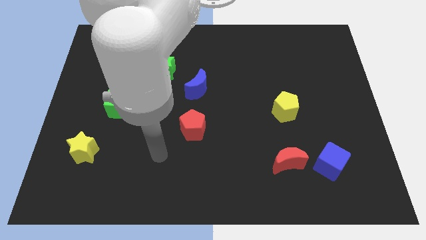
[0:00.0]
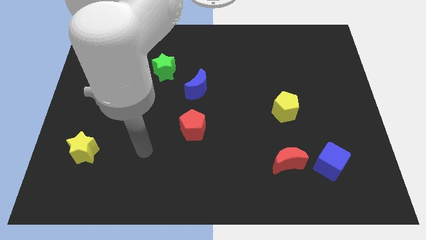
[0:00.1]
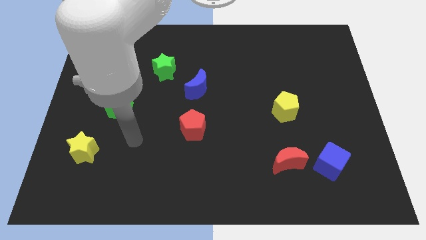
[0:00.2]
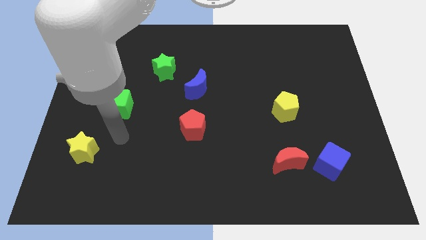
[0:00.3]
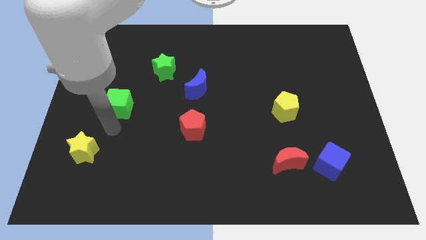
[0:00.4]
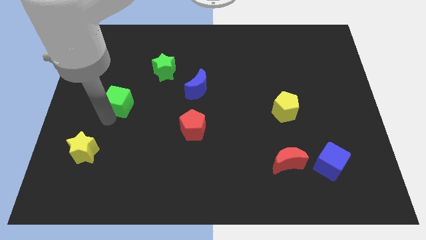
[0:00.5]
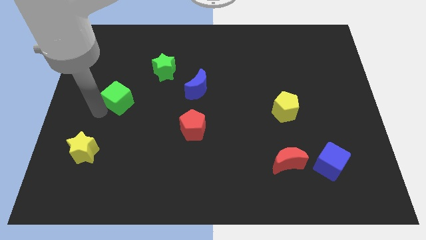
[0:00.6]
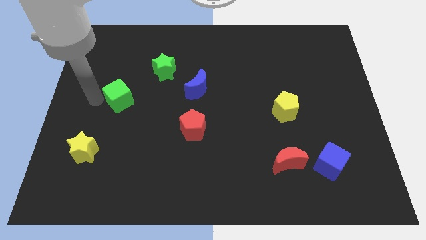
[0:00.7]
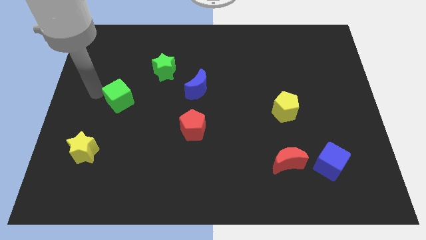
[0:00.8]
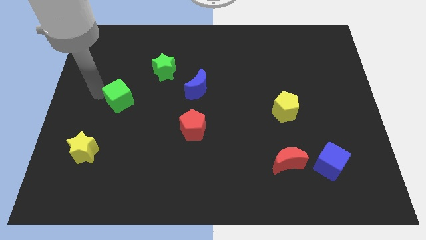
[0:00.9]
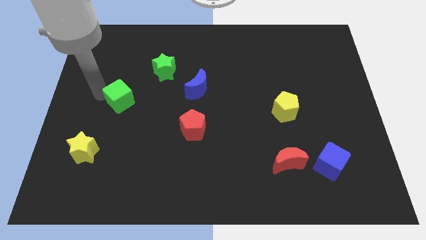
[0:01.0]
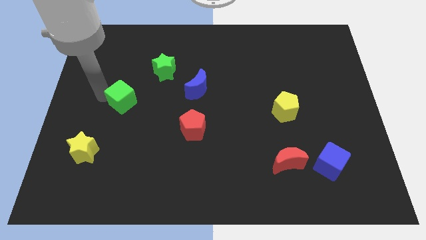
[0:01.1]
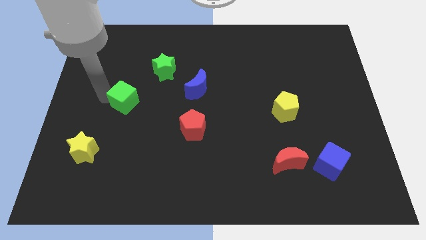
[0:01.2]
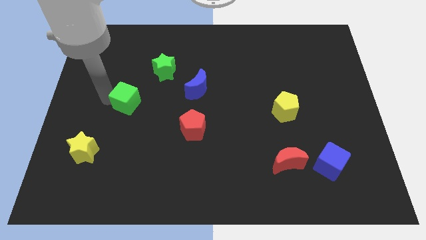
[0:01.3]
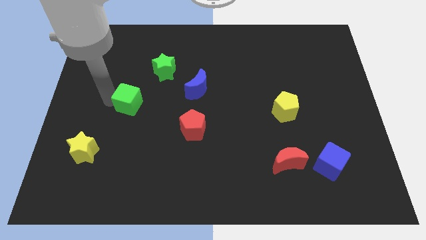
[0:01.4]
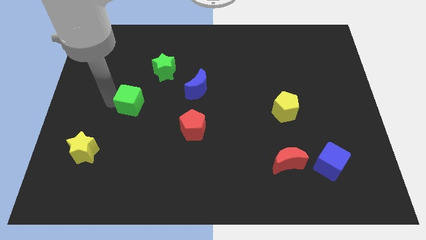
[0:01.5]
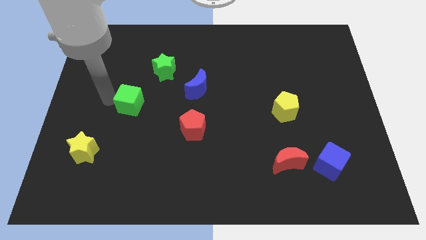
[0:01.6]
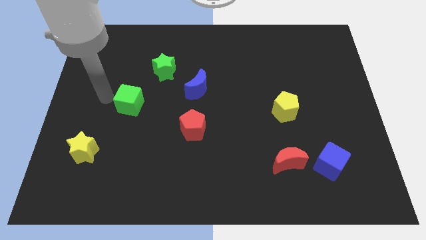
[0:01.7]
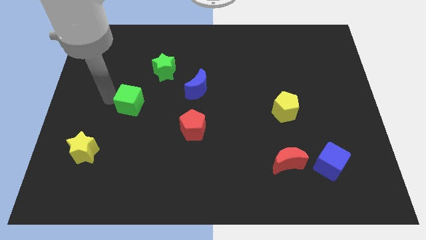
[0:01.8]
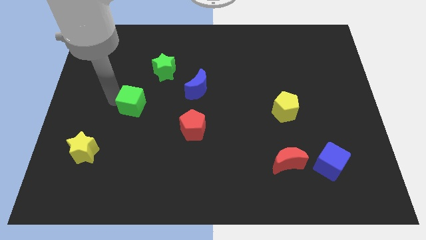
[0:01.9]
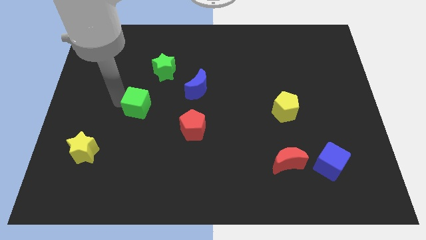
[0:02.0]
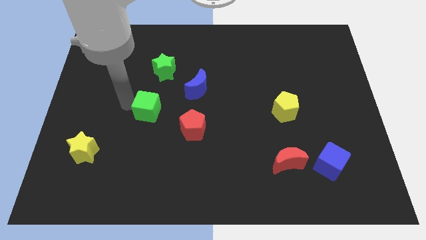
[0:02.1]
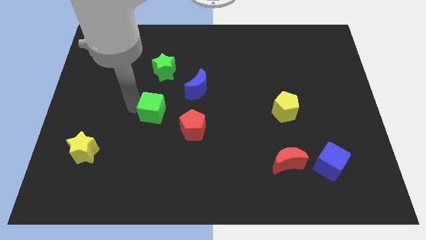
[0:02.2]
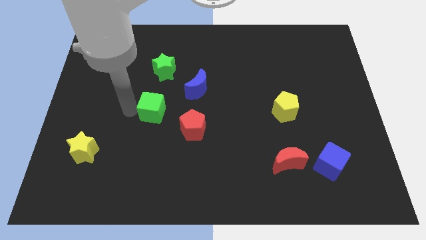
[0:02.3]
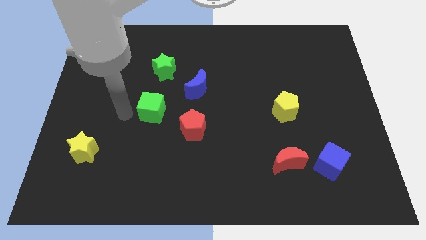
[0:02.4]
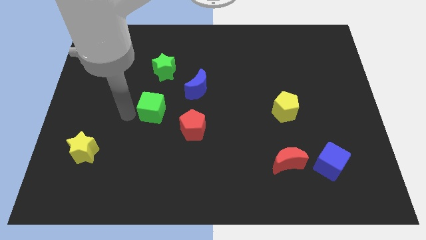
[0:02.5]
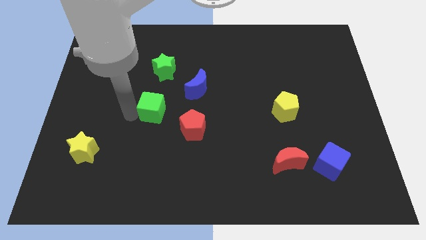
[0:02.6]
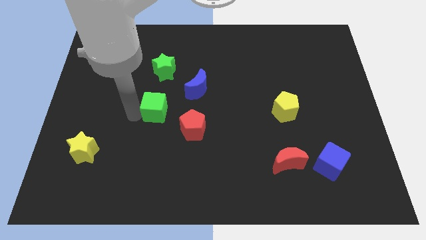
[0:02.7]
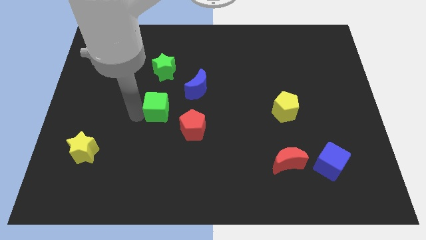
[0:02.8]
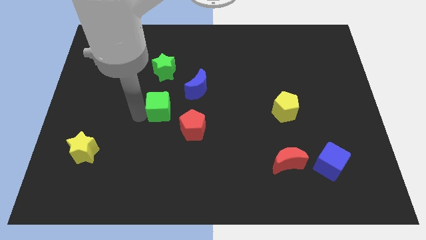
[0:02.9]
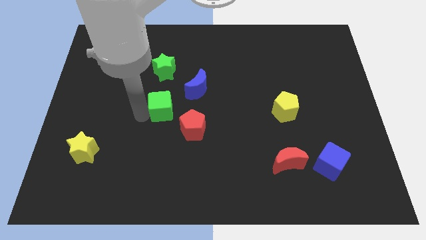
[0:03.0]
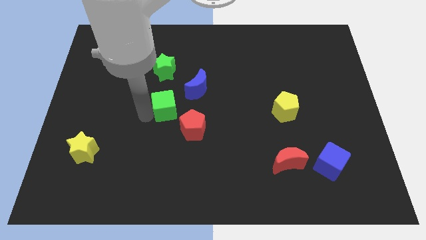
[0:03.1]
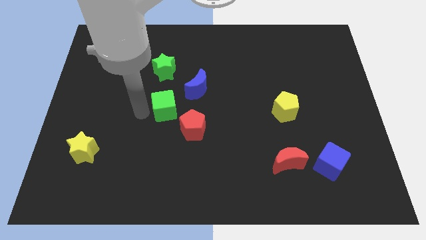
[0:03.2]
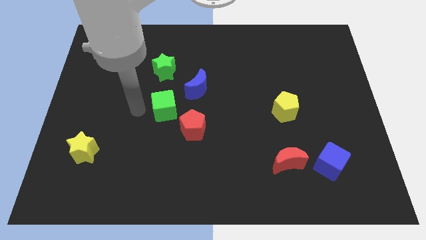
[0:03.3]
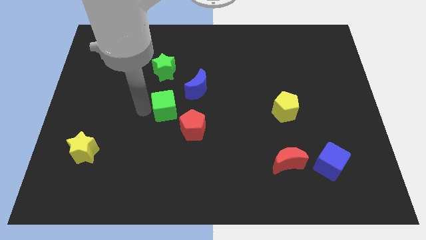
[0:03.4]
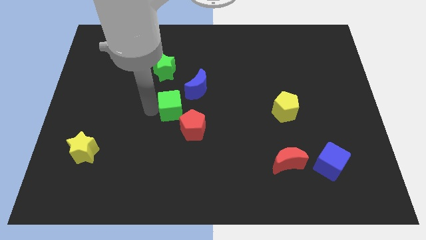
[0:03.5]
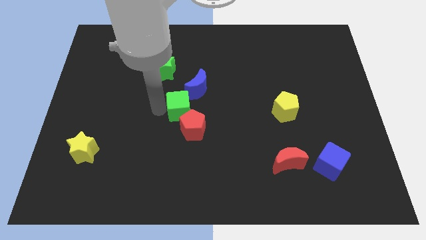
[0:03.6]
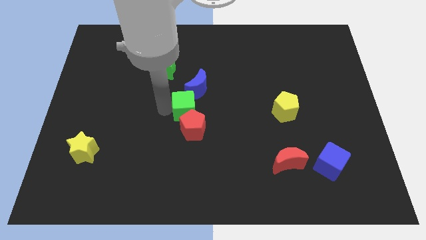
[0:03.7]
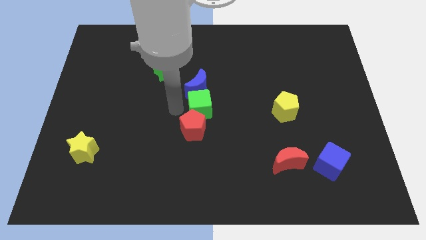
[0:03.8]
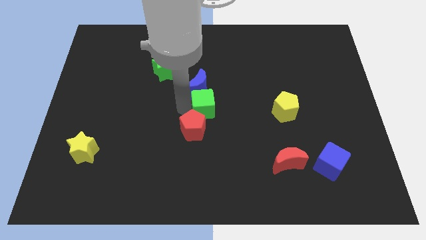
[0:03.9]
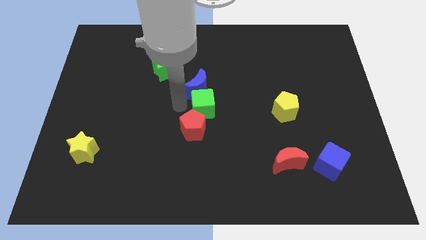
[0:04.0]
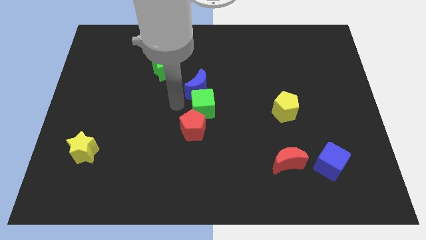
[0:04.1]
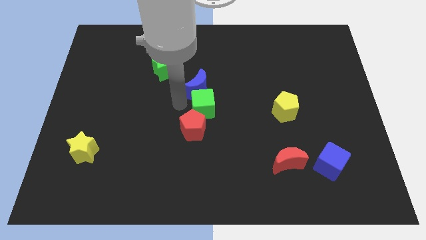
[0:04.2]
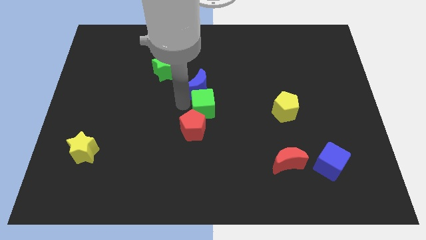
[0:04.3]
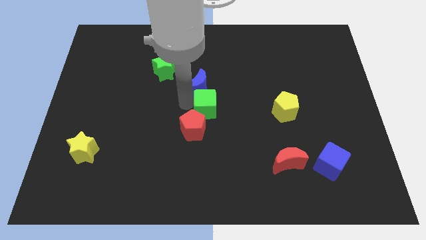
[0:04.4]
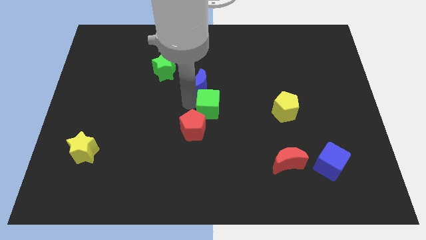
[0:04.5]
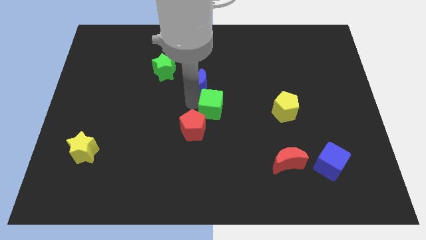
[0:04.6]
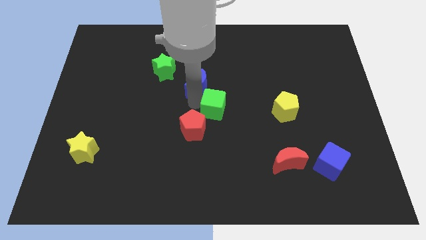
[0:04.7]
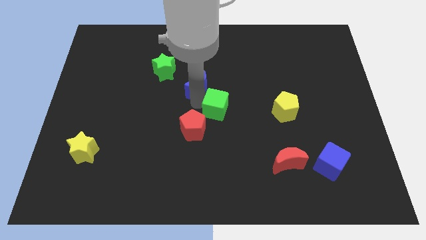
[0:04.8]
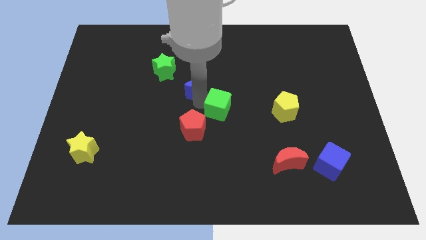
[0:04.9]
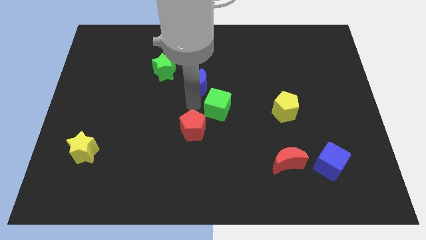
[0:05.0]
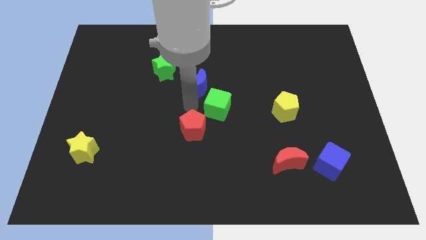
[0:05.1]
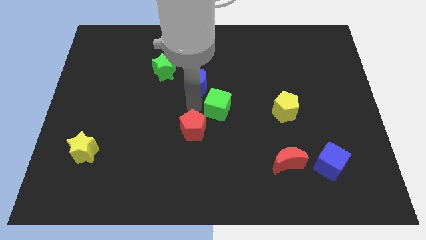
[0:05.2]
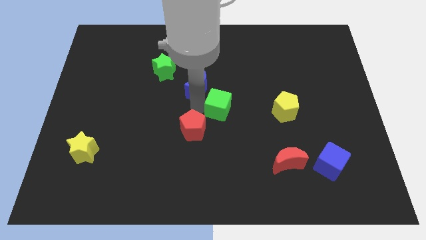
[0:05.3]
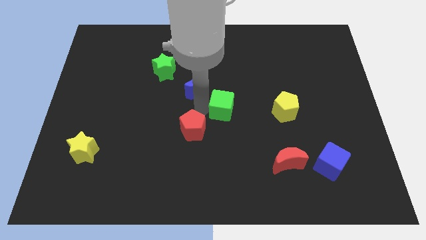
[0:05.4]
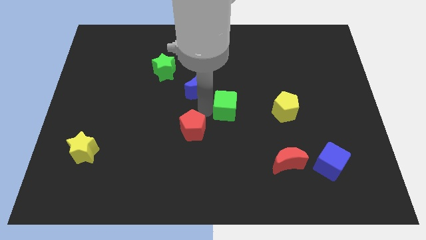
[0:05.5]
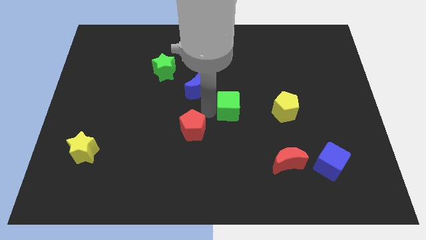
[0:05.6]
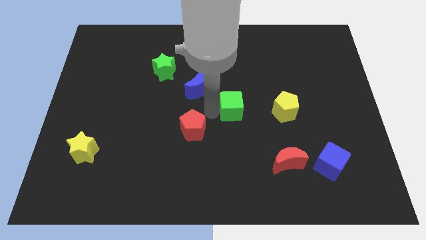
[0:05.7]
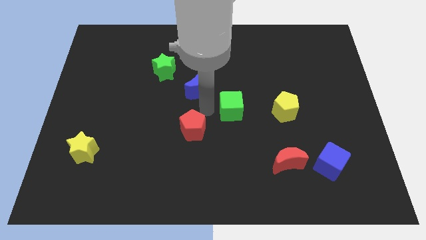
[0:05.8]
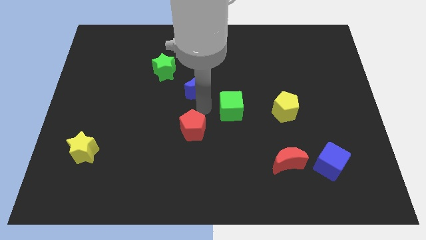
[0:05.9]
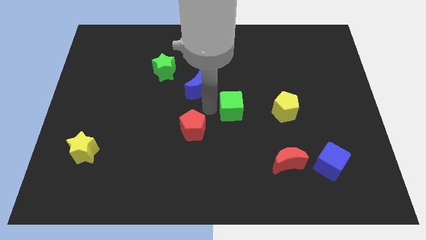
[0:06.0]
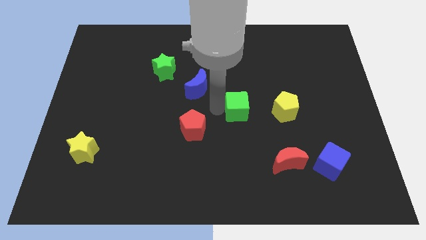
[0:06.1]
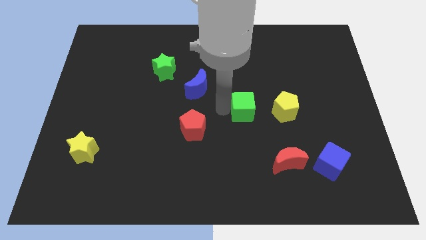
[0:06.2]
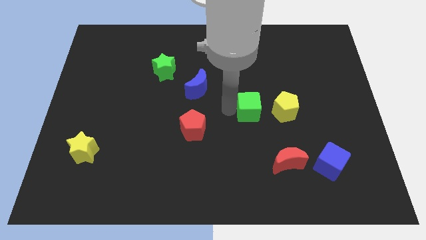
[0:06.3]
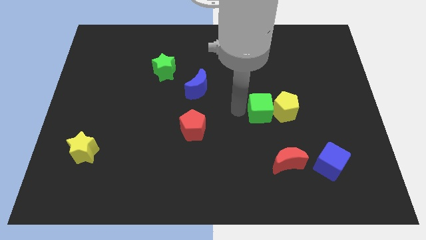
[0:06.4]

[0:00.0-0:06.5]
slide the green cube to the yellow pentagon

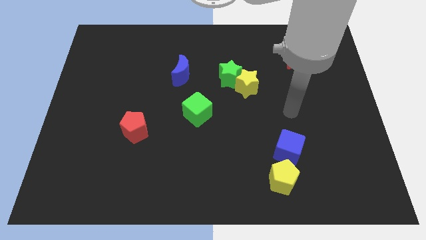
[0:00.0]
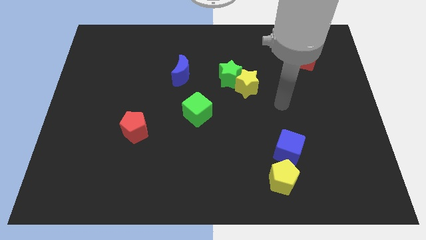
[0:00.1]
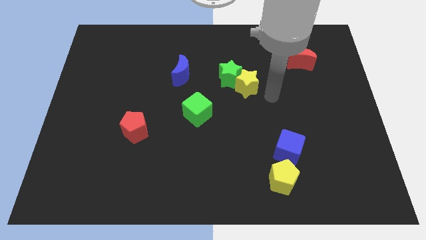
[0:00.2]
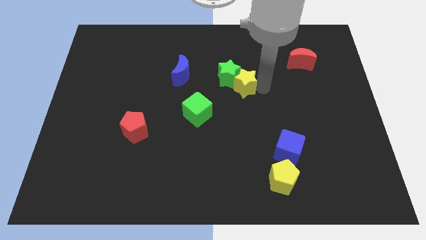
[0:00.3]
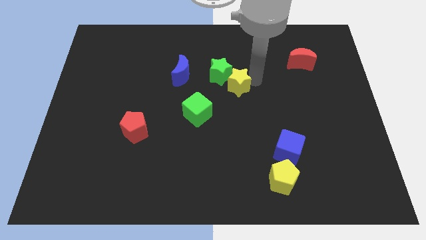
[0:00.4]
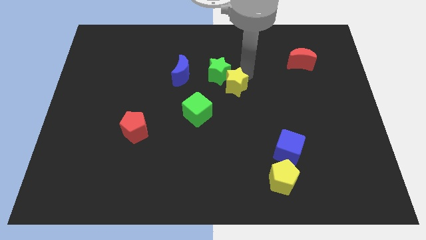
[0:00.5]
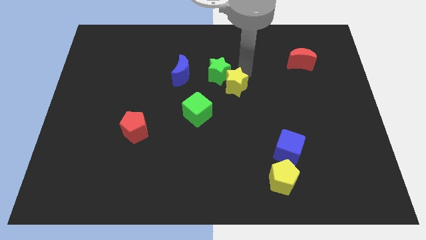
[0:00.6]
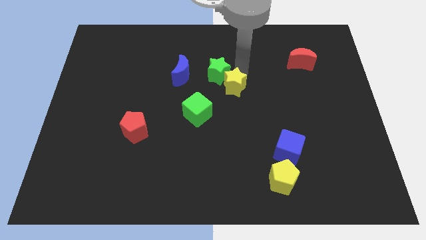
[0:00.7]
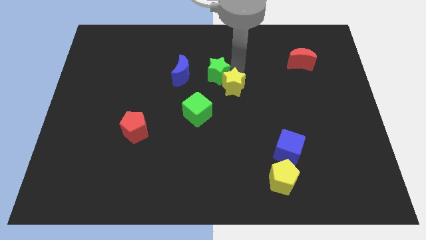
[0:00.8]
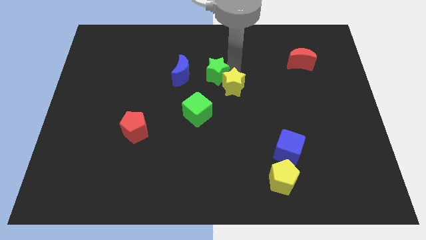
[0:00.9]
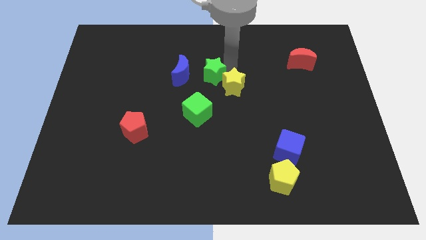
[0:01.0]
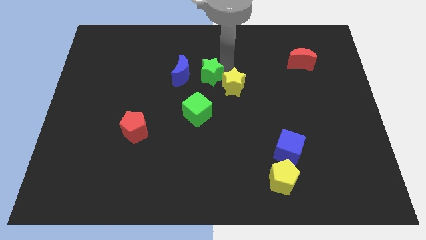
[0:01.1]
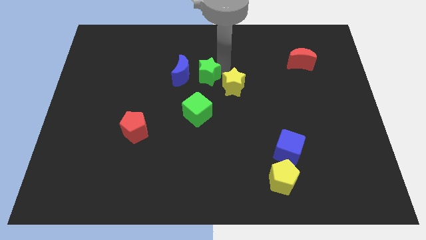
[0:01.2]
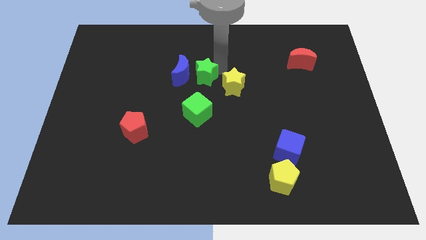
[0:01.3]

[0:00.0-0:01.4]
push the green star towards the blue moon
